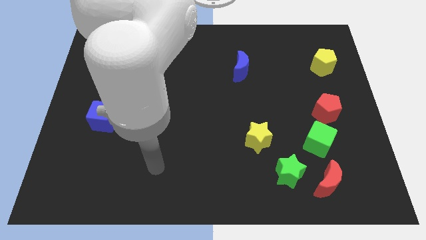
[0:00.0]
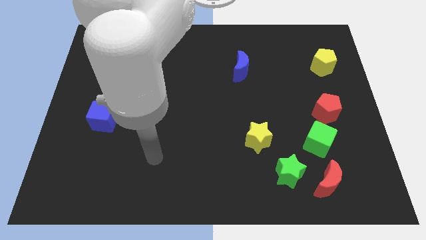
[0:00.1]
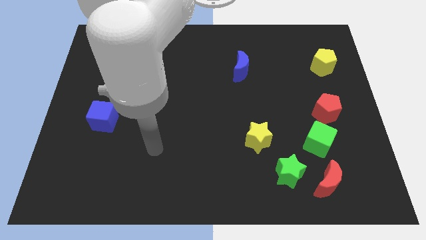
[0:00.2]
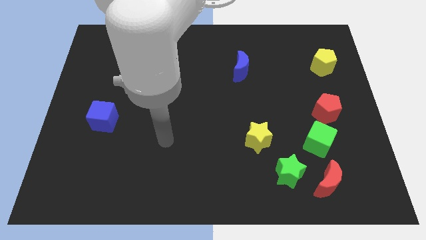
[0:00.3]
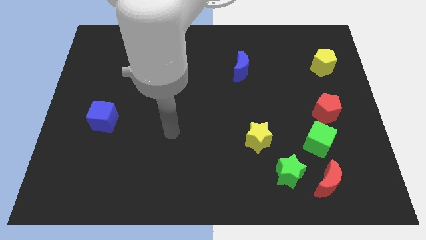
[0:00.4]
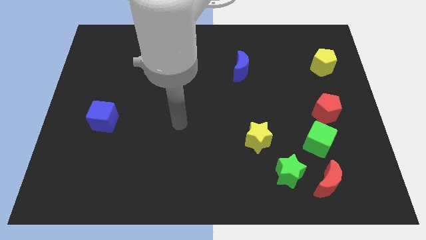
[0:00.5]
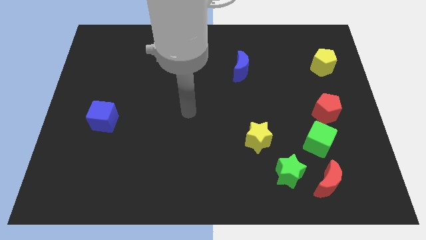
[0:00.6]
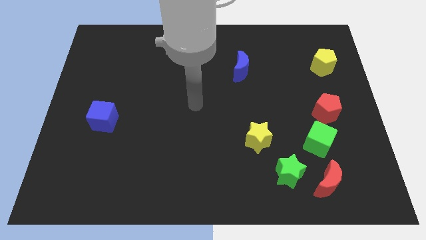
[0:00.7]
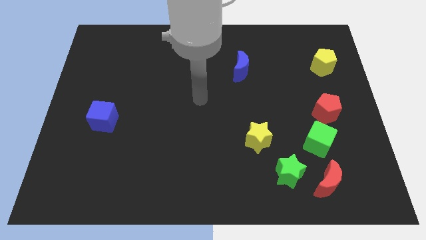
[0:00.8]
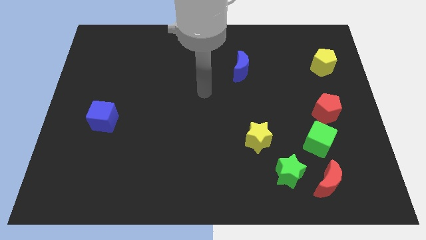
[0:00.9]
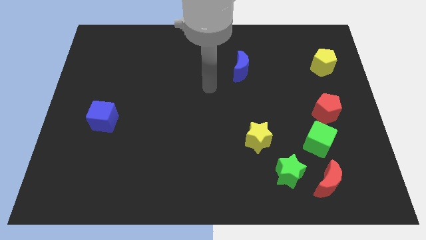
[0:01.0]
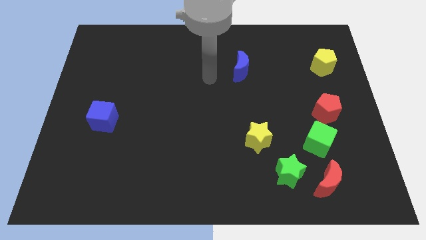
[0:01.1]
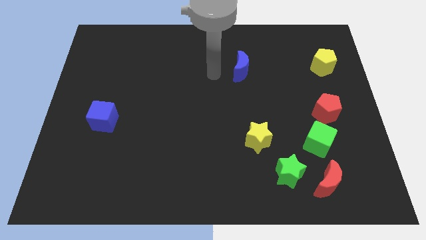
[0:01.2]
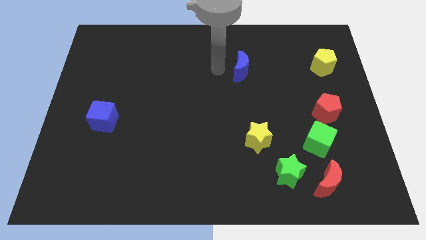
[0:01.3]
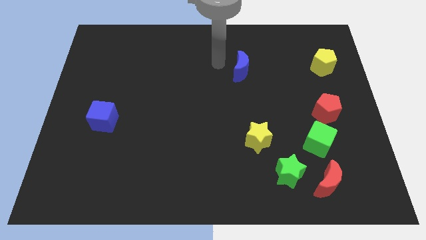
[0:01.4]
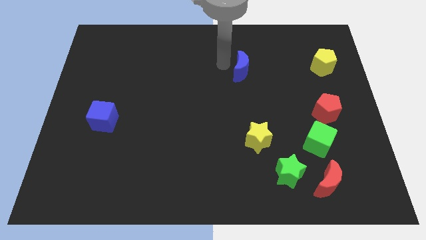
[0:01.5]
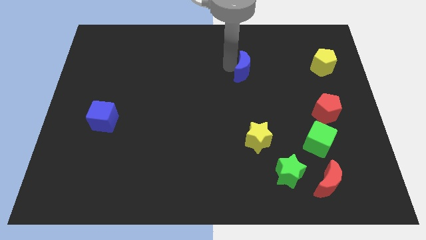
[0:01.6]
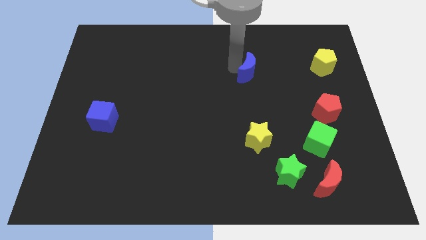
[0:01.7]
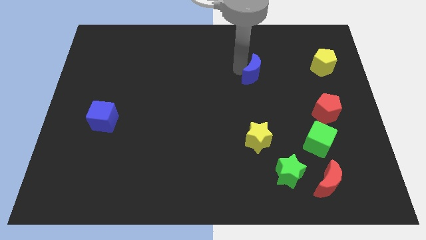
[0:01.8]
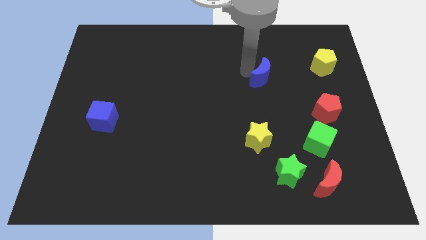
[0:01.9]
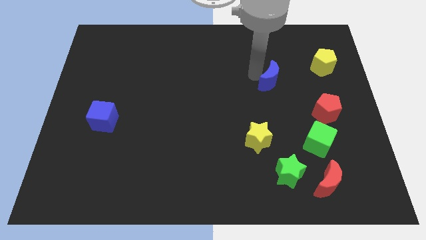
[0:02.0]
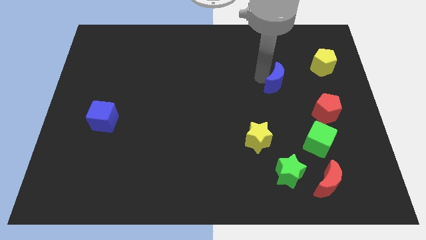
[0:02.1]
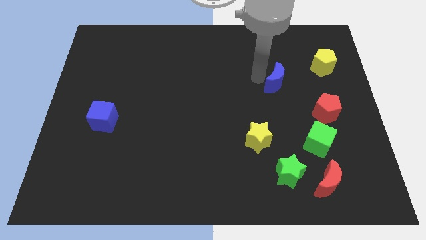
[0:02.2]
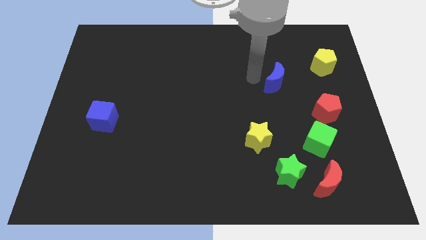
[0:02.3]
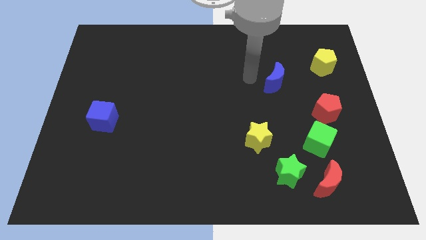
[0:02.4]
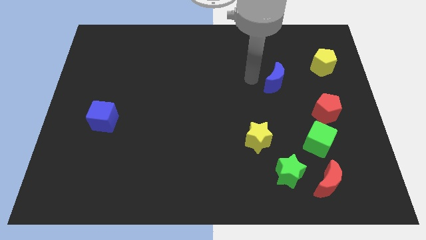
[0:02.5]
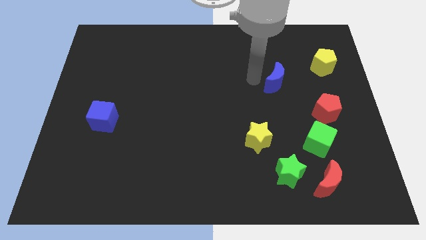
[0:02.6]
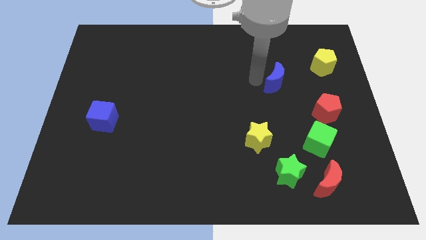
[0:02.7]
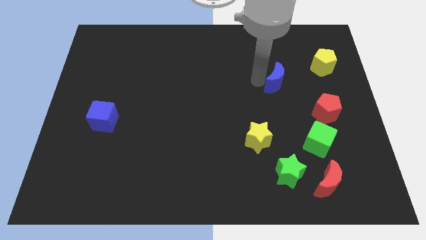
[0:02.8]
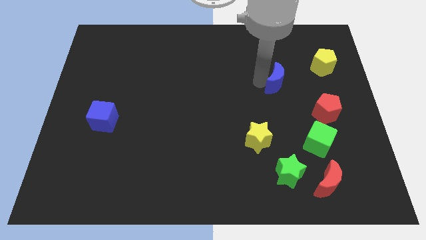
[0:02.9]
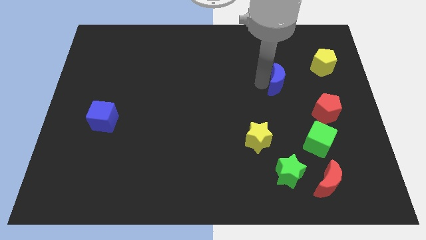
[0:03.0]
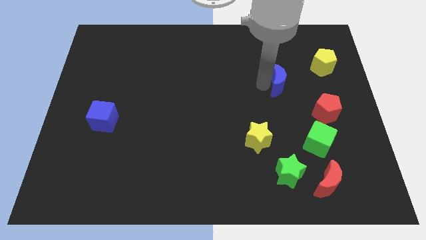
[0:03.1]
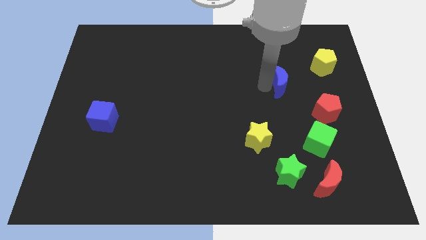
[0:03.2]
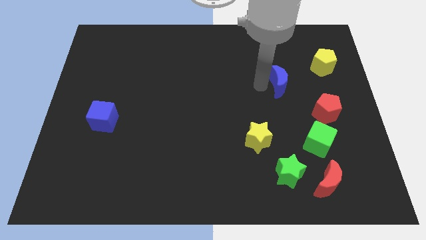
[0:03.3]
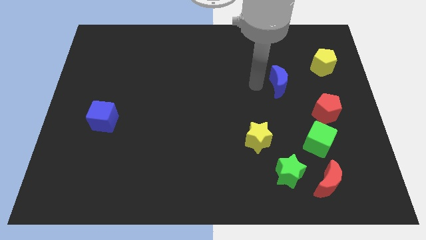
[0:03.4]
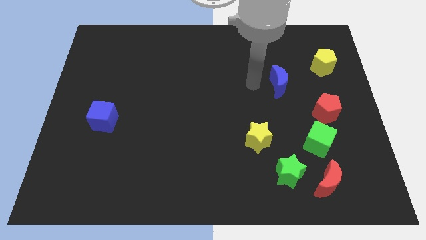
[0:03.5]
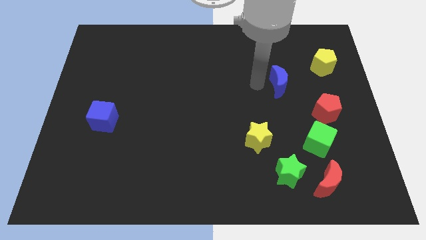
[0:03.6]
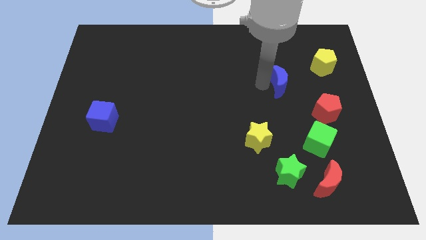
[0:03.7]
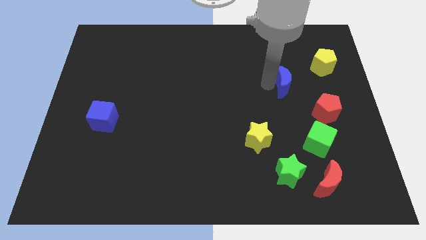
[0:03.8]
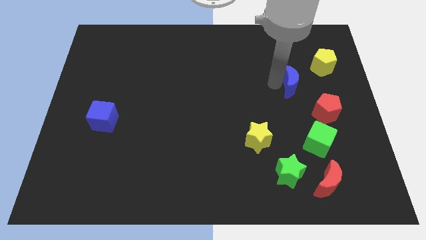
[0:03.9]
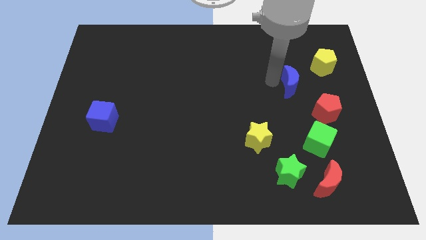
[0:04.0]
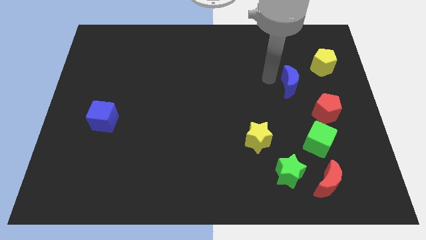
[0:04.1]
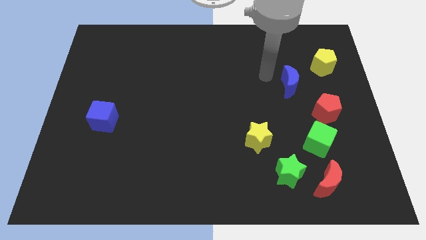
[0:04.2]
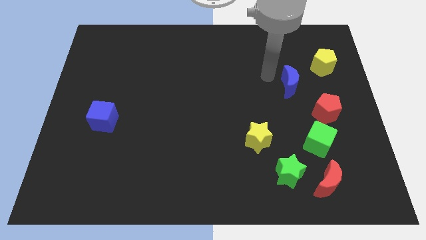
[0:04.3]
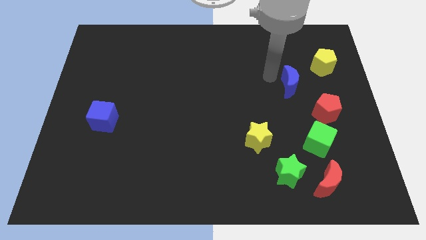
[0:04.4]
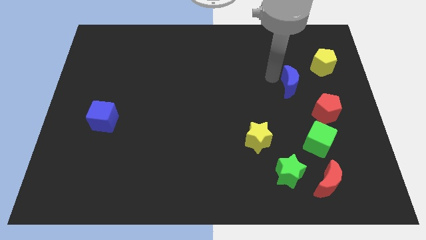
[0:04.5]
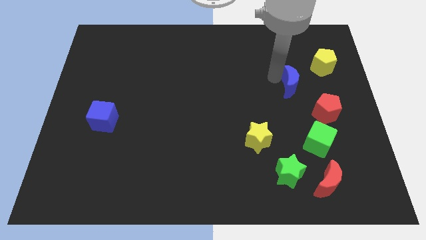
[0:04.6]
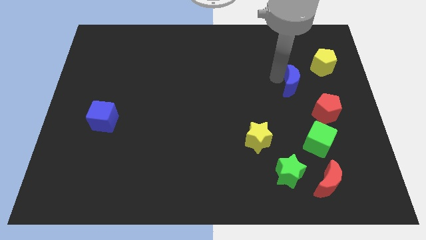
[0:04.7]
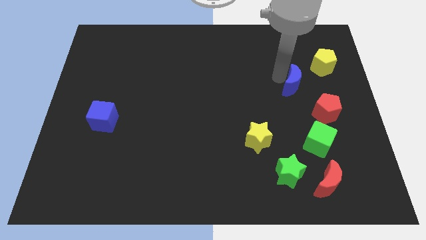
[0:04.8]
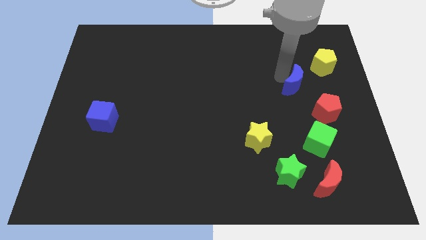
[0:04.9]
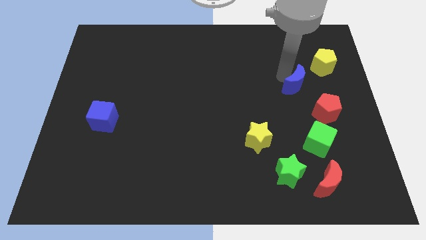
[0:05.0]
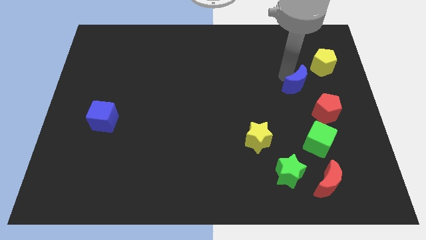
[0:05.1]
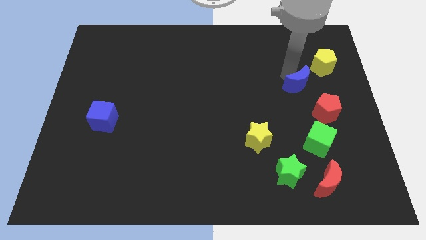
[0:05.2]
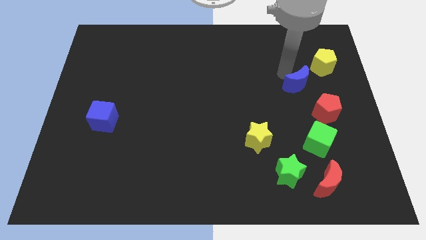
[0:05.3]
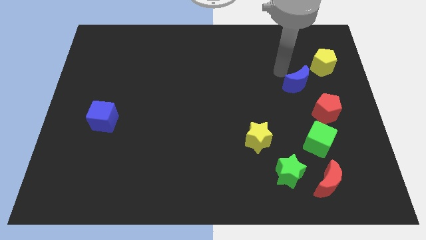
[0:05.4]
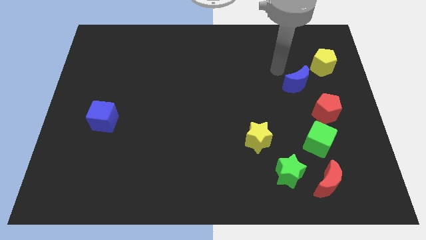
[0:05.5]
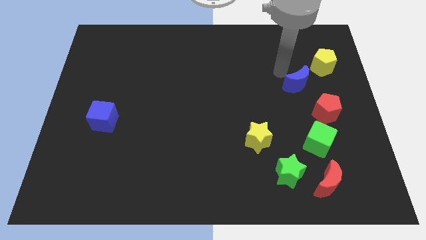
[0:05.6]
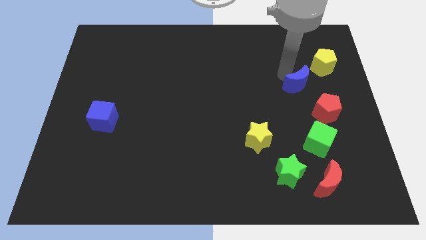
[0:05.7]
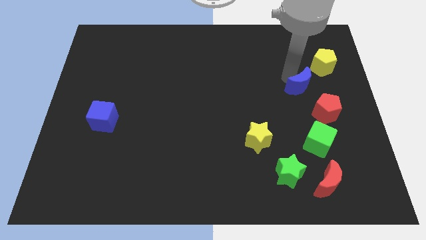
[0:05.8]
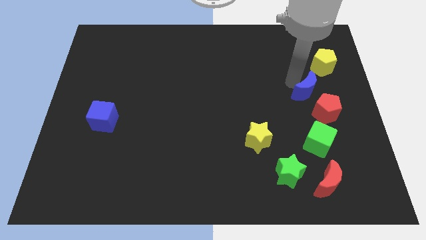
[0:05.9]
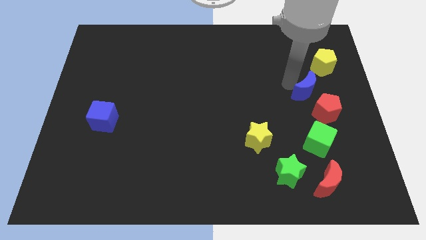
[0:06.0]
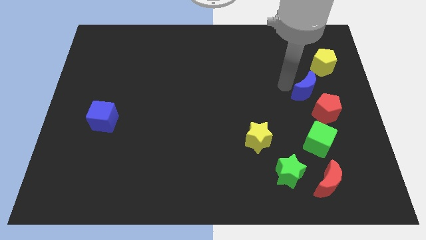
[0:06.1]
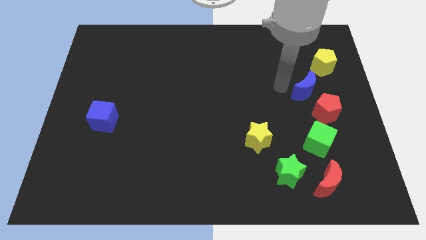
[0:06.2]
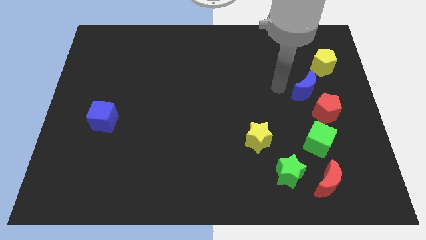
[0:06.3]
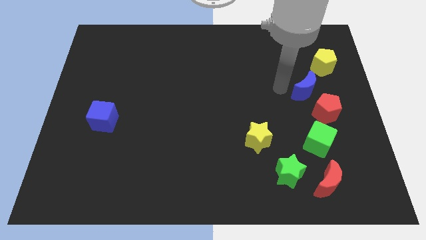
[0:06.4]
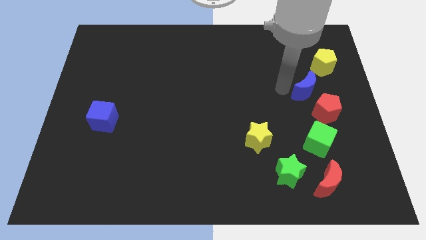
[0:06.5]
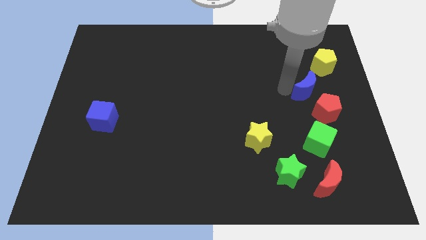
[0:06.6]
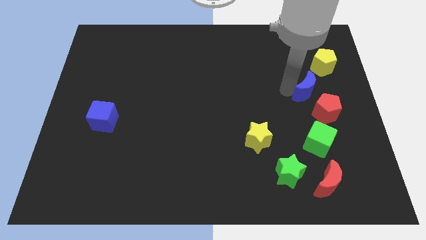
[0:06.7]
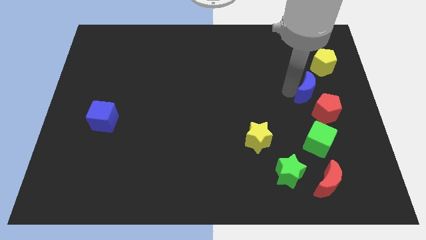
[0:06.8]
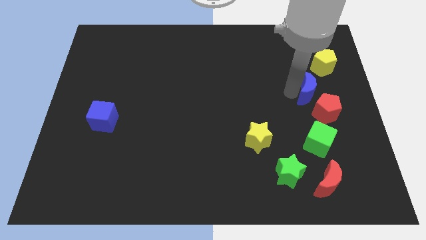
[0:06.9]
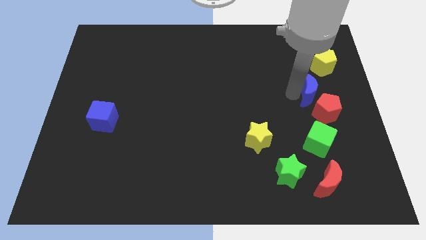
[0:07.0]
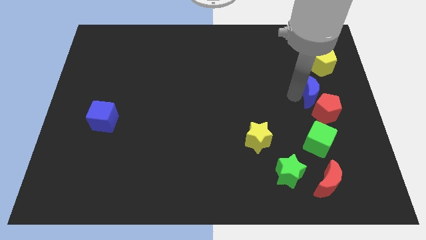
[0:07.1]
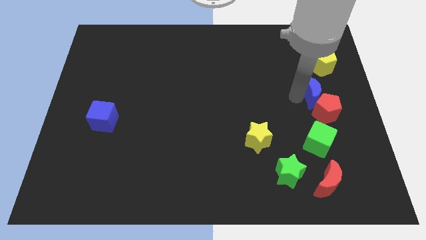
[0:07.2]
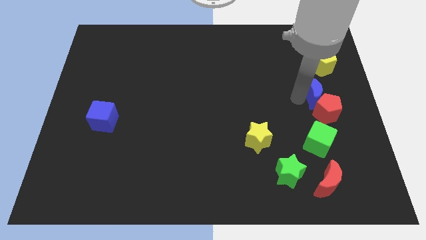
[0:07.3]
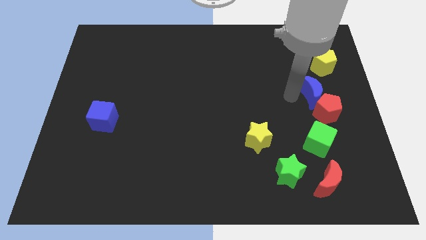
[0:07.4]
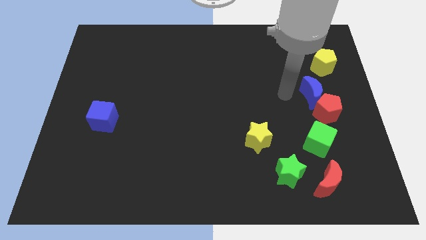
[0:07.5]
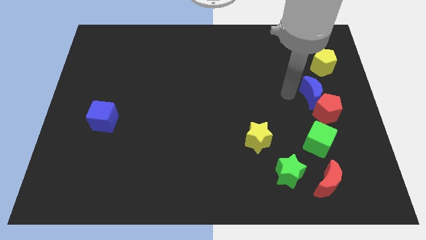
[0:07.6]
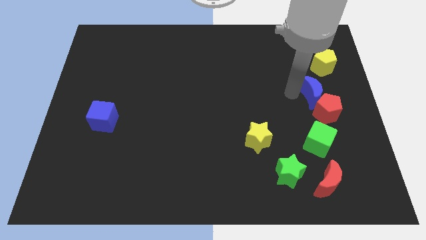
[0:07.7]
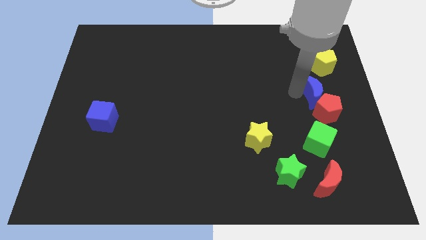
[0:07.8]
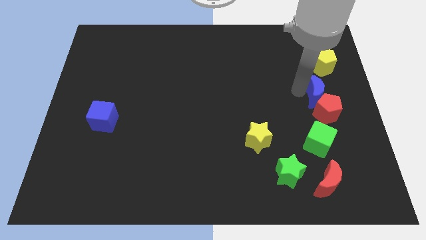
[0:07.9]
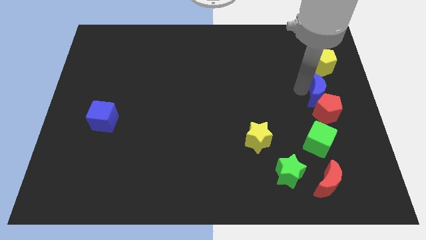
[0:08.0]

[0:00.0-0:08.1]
slide the blue moon to the right side
